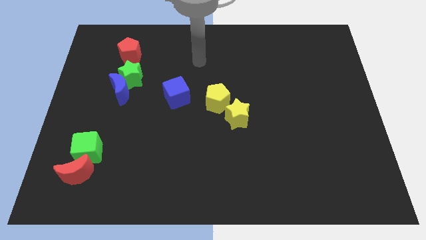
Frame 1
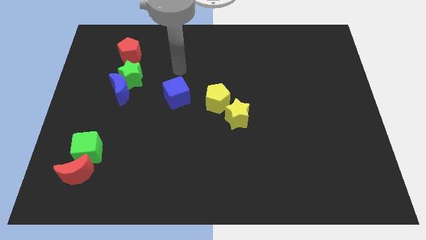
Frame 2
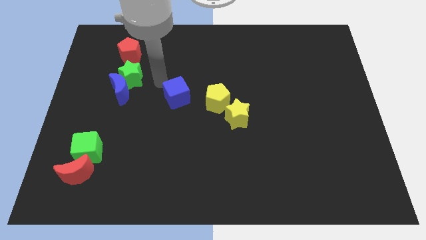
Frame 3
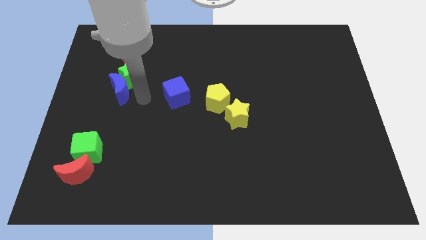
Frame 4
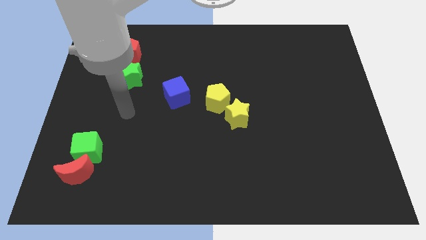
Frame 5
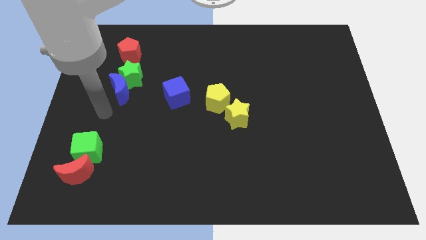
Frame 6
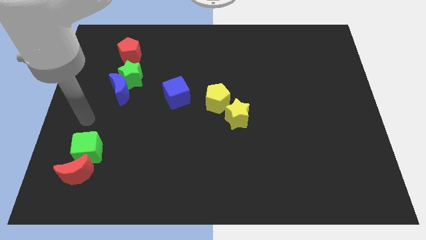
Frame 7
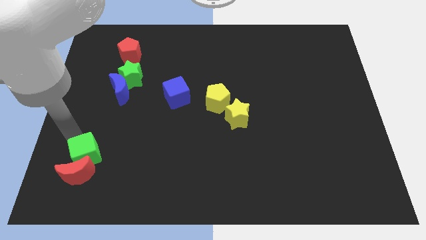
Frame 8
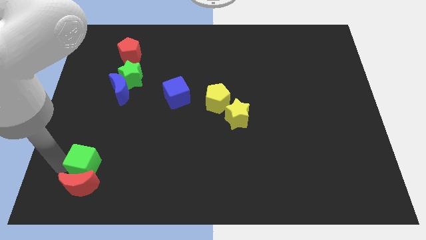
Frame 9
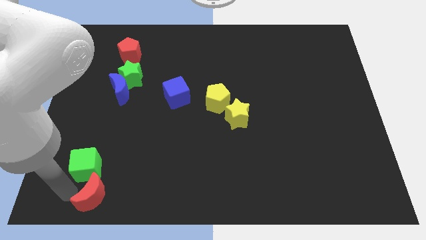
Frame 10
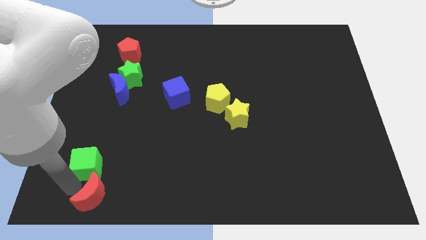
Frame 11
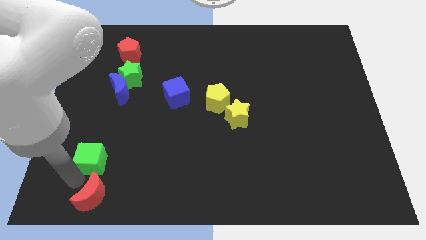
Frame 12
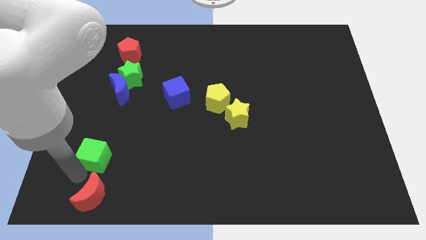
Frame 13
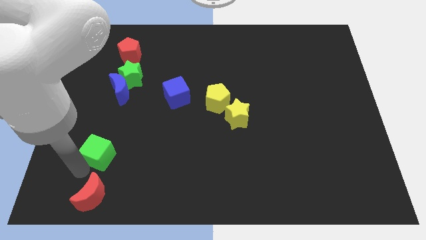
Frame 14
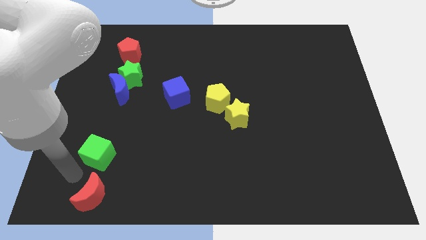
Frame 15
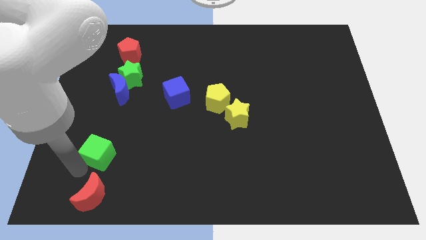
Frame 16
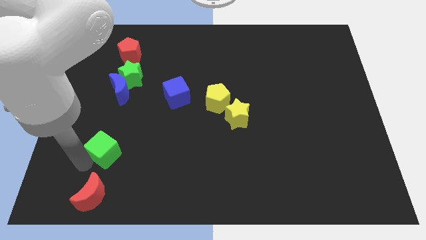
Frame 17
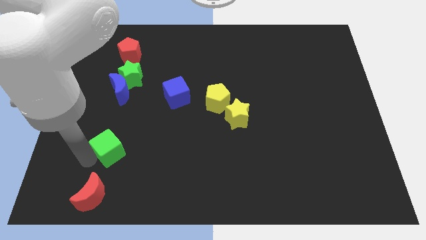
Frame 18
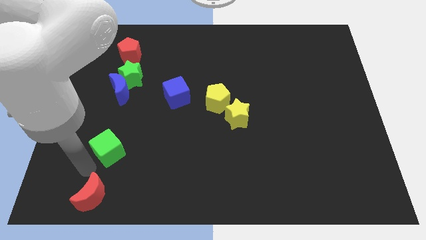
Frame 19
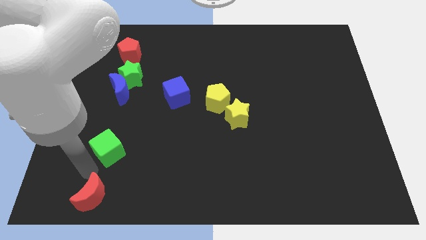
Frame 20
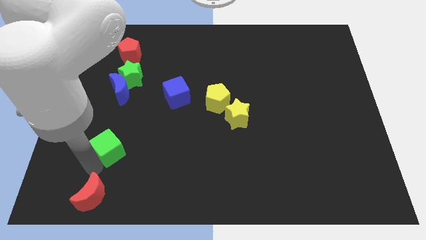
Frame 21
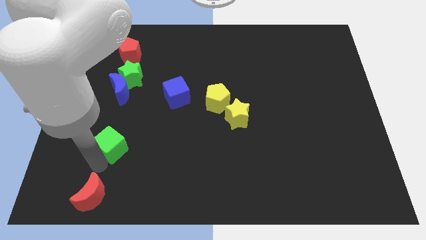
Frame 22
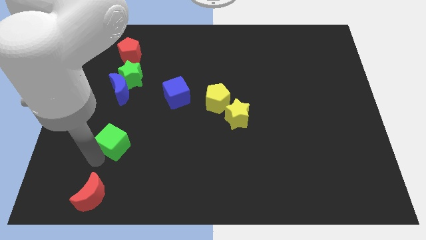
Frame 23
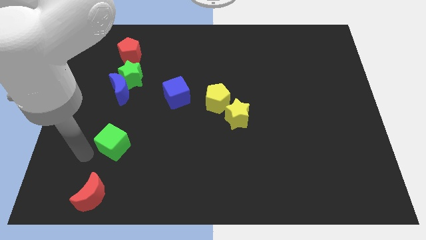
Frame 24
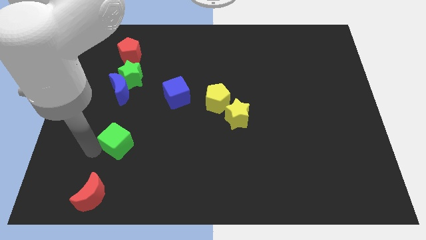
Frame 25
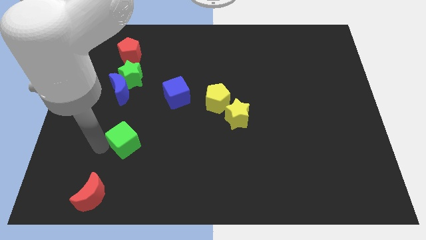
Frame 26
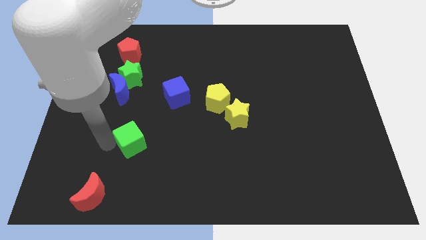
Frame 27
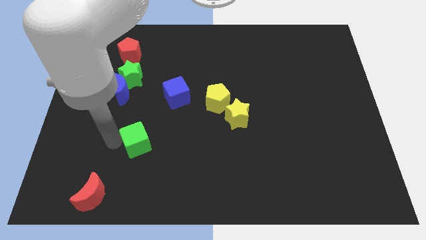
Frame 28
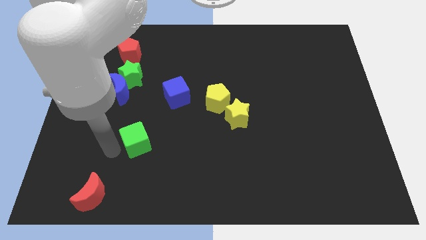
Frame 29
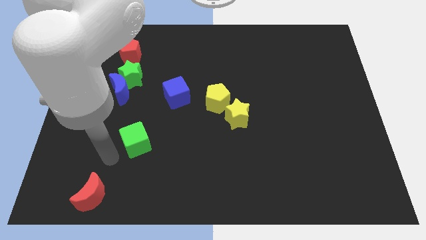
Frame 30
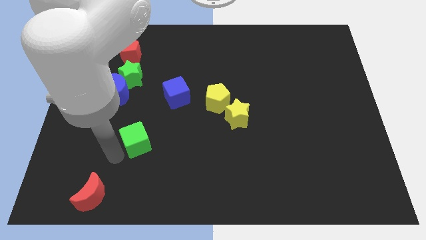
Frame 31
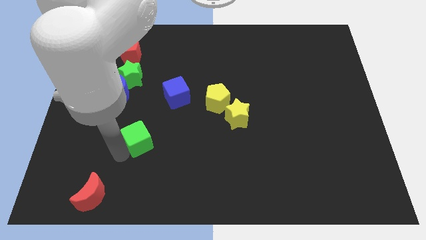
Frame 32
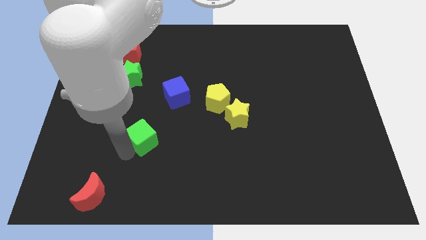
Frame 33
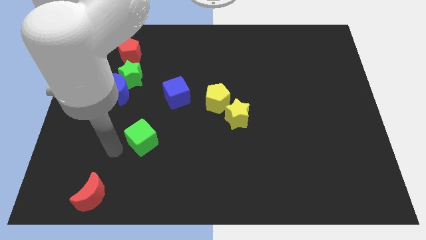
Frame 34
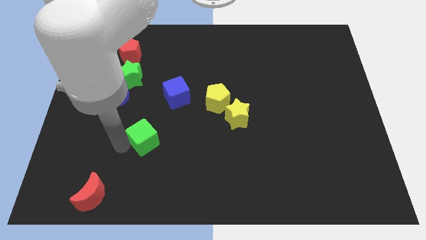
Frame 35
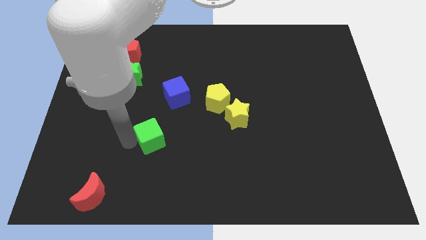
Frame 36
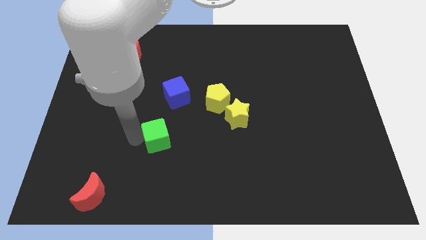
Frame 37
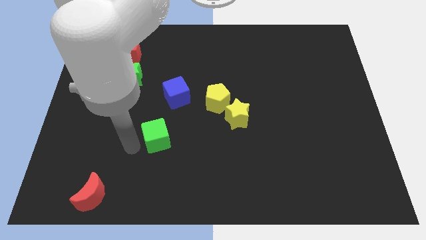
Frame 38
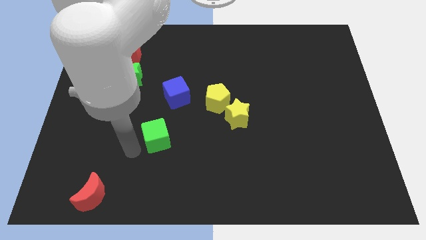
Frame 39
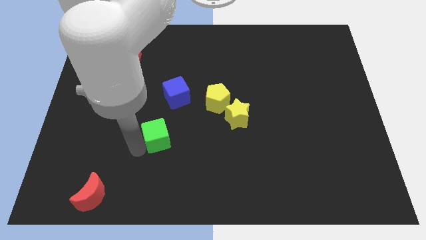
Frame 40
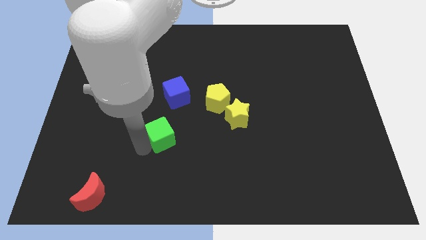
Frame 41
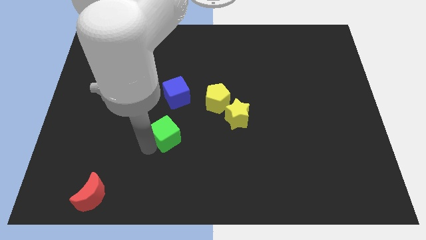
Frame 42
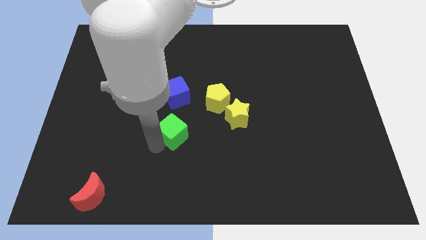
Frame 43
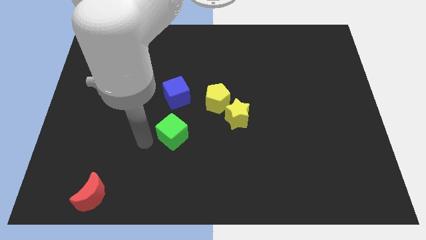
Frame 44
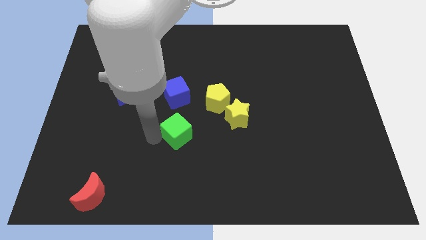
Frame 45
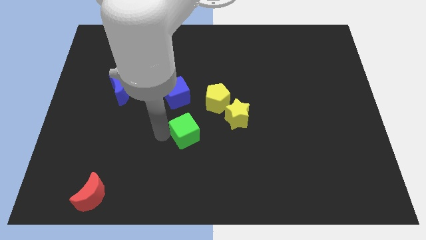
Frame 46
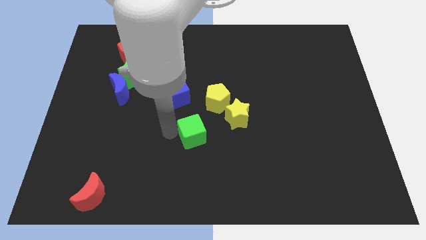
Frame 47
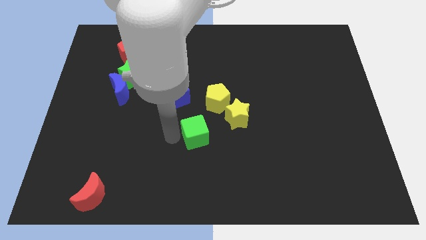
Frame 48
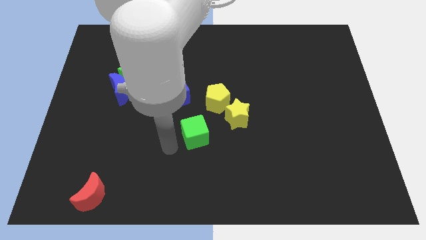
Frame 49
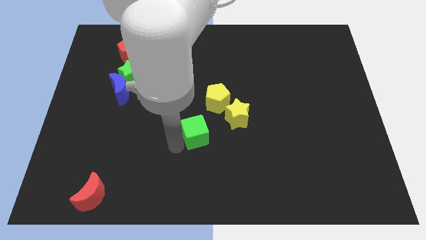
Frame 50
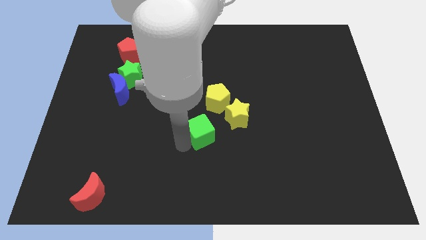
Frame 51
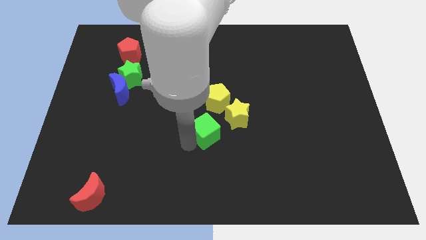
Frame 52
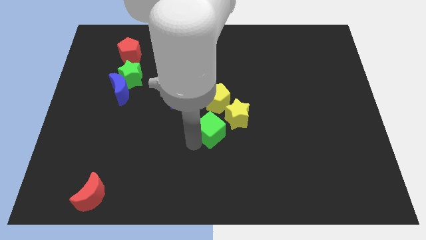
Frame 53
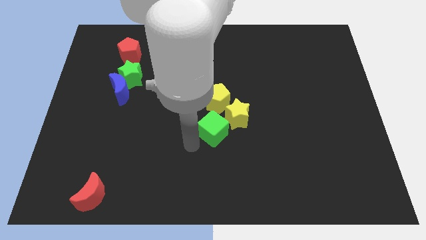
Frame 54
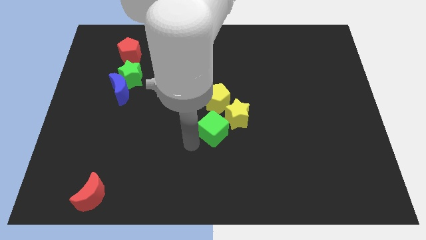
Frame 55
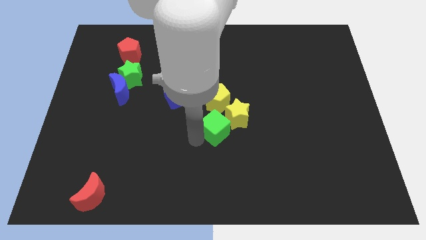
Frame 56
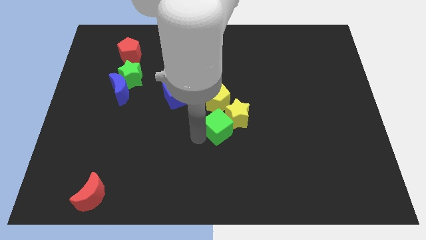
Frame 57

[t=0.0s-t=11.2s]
slide the green cube close to the yellow star

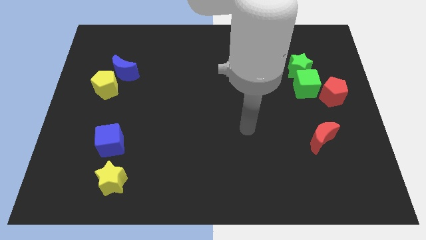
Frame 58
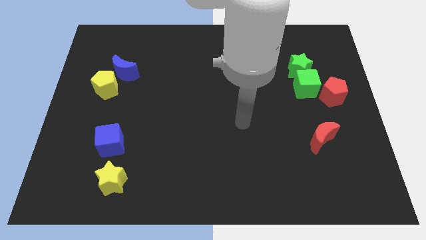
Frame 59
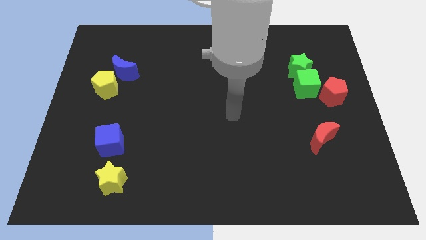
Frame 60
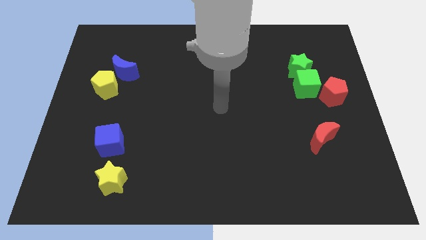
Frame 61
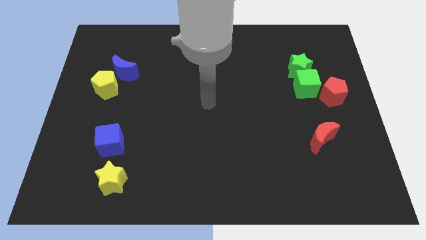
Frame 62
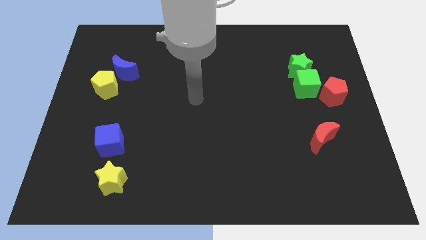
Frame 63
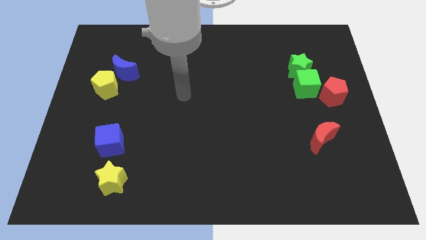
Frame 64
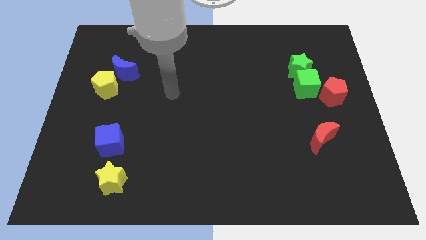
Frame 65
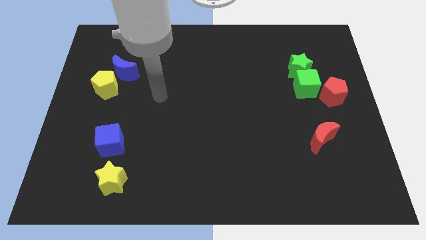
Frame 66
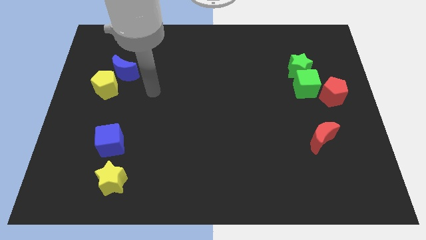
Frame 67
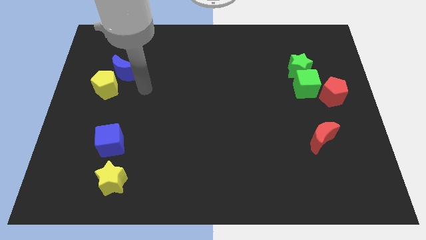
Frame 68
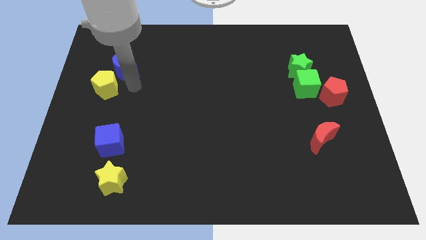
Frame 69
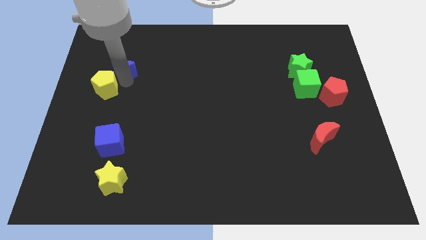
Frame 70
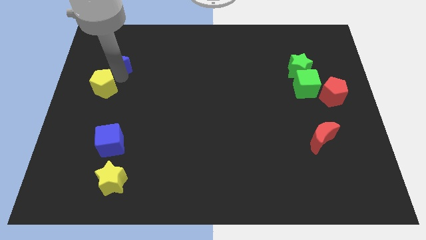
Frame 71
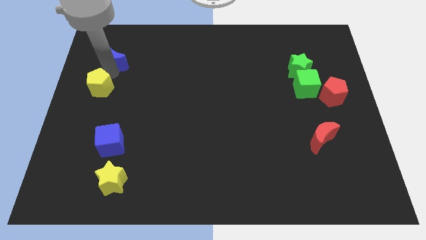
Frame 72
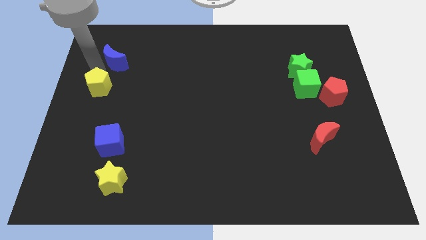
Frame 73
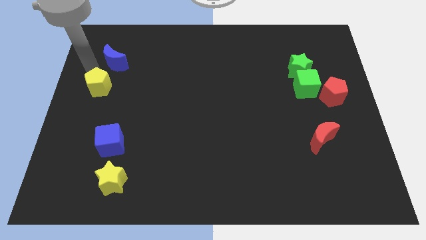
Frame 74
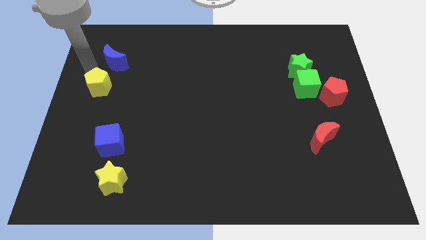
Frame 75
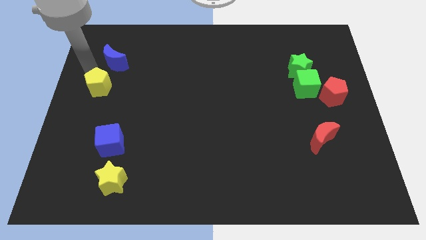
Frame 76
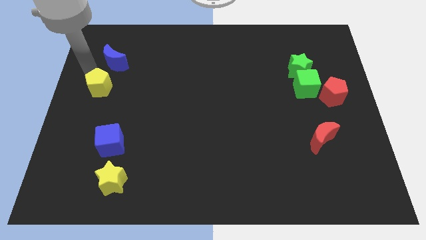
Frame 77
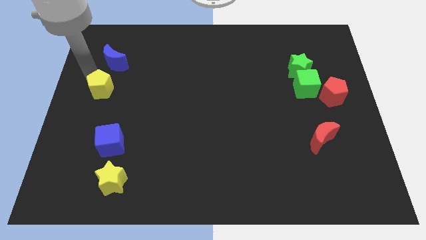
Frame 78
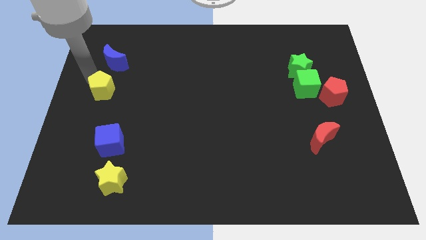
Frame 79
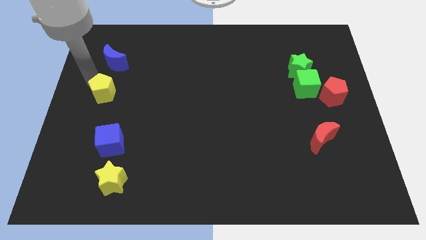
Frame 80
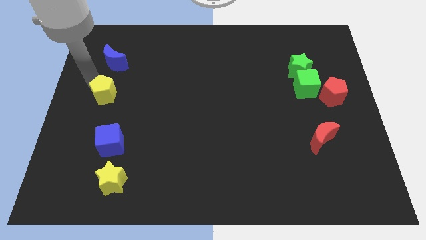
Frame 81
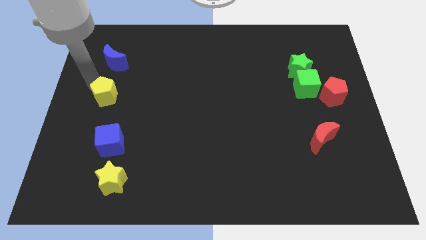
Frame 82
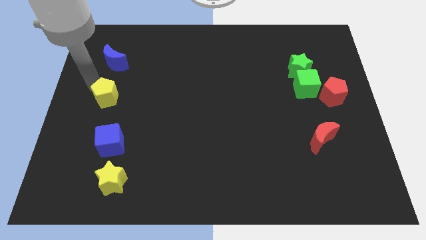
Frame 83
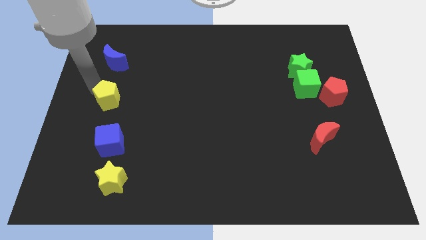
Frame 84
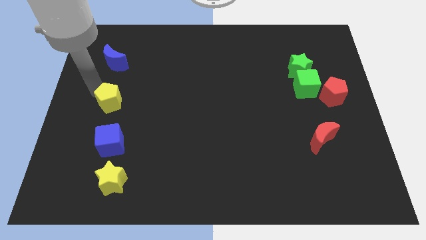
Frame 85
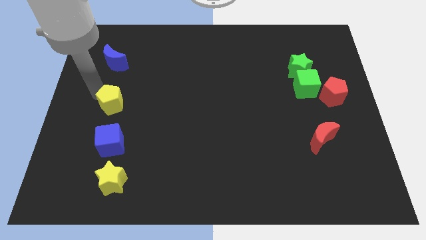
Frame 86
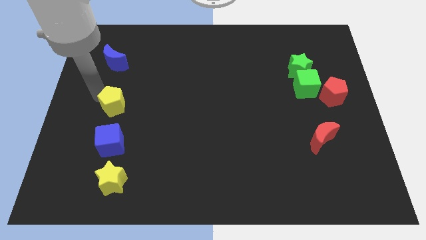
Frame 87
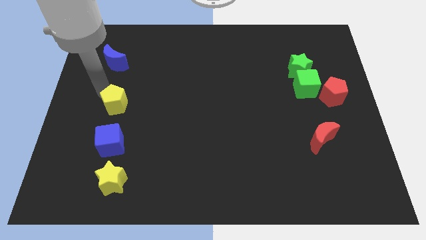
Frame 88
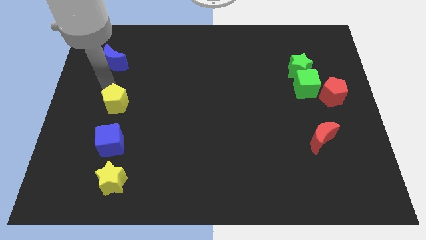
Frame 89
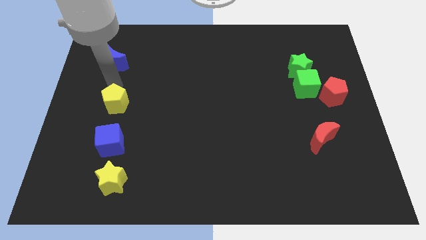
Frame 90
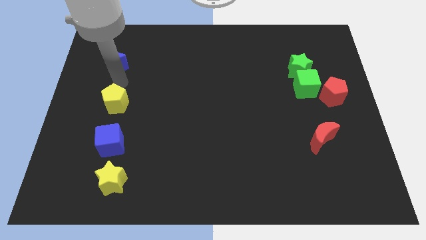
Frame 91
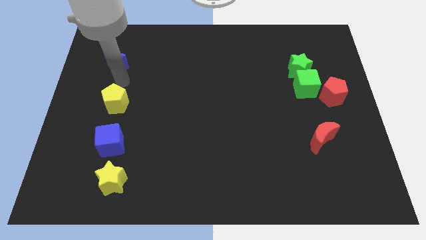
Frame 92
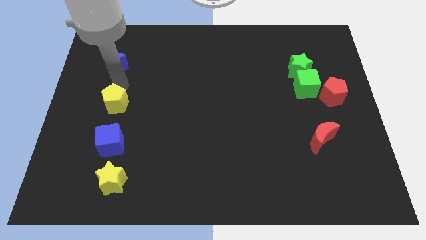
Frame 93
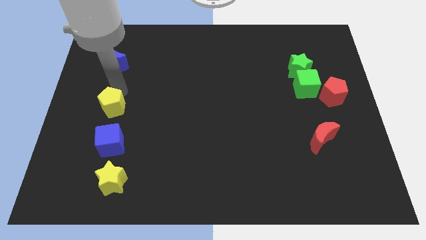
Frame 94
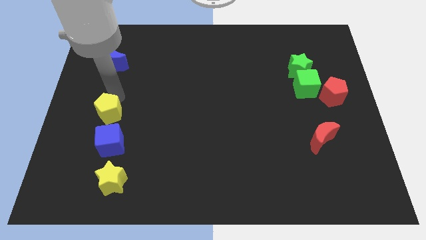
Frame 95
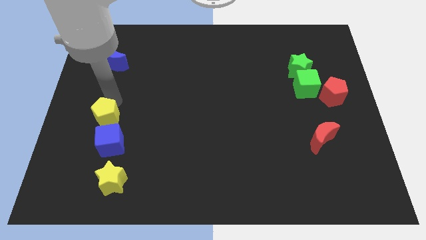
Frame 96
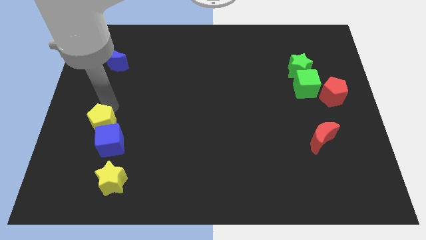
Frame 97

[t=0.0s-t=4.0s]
push the yellow pentagon close to the blue cube
